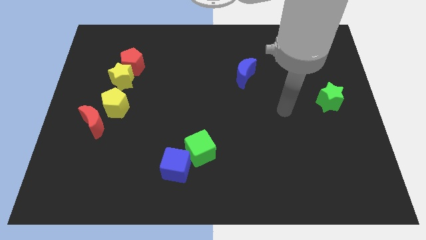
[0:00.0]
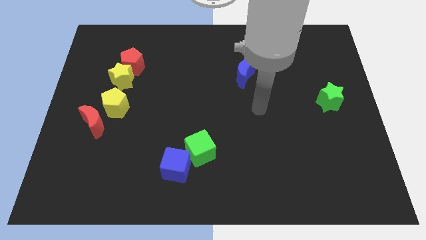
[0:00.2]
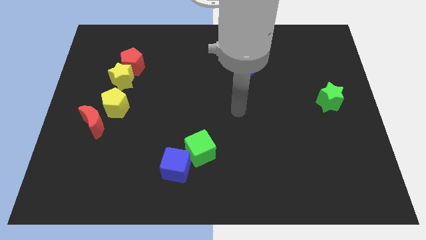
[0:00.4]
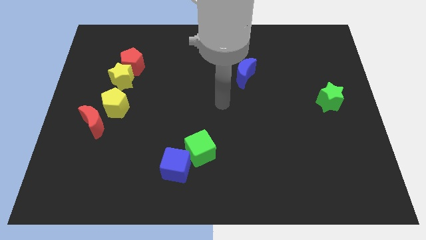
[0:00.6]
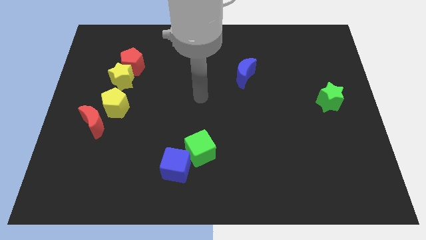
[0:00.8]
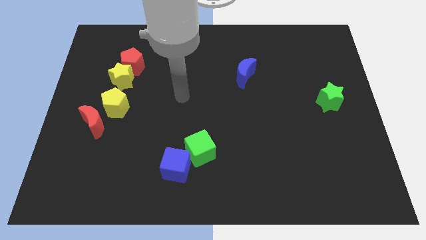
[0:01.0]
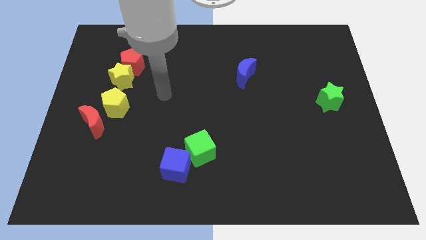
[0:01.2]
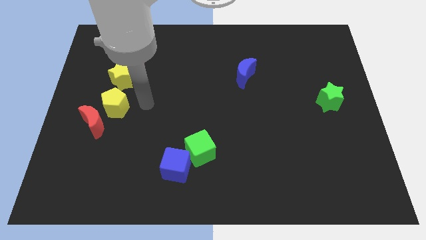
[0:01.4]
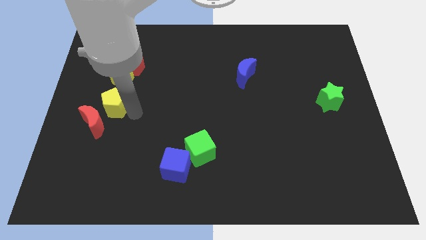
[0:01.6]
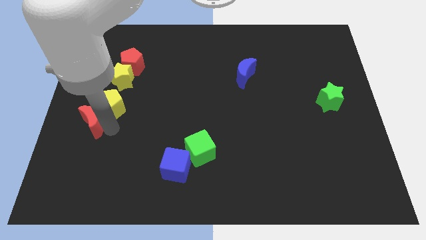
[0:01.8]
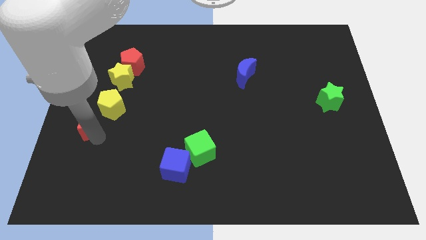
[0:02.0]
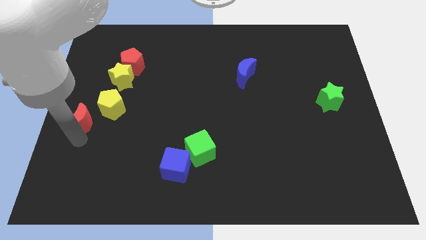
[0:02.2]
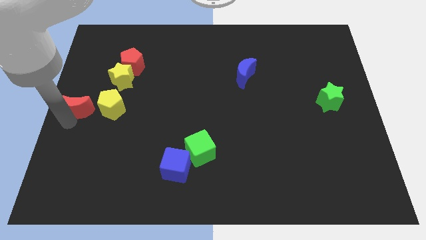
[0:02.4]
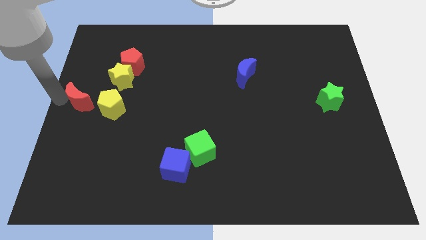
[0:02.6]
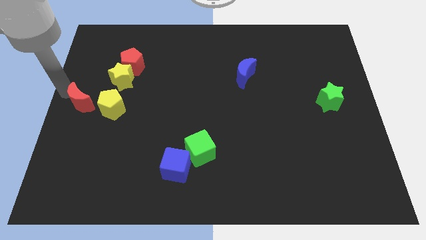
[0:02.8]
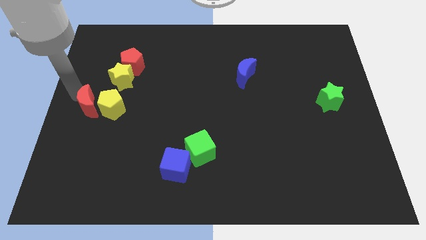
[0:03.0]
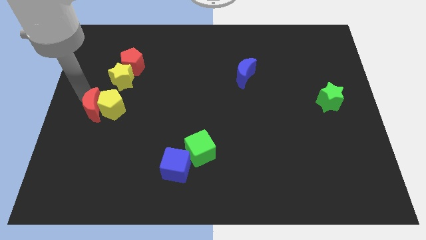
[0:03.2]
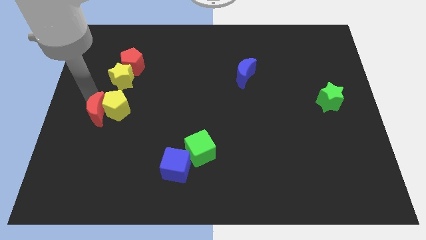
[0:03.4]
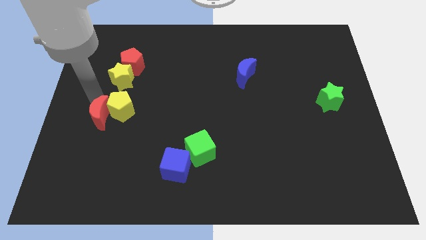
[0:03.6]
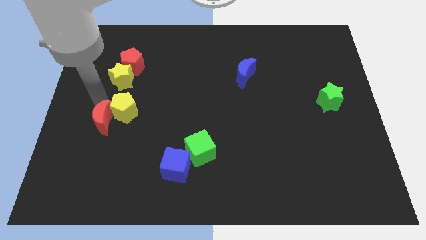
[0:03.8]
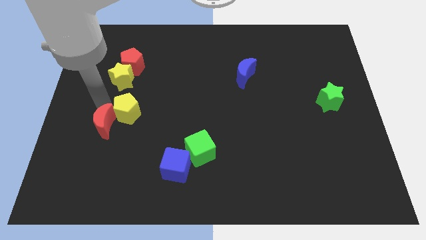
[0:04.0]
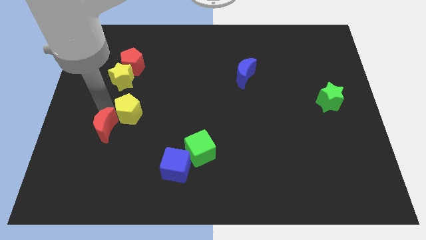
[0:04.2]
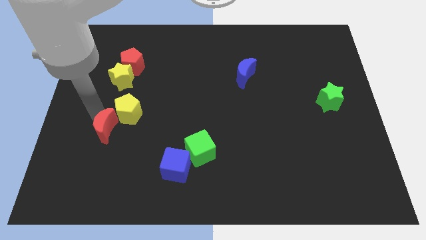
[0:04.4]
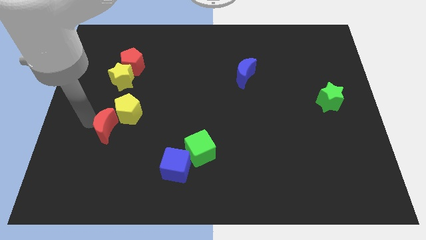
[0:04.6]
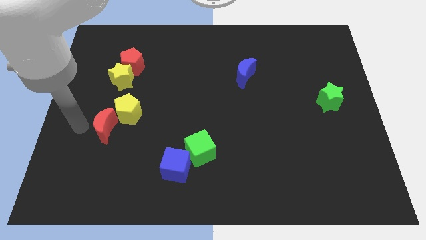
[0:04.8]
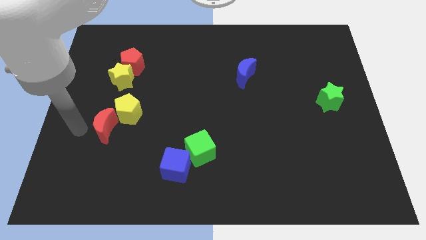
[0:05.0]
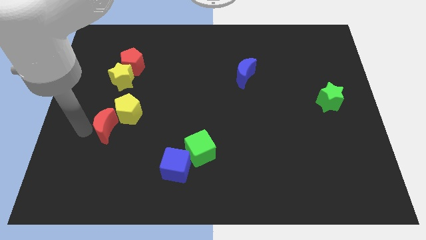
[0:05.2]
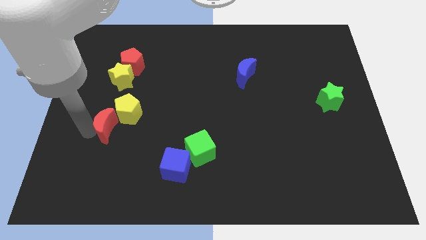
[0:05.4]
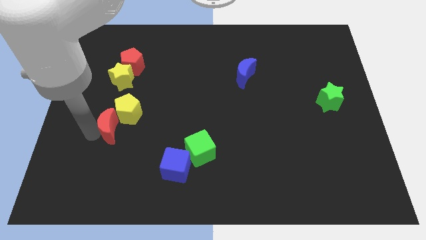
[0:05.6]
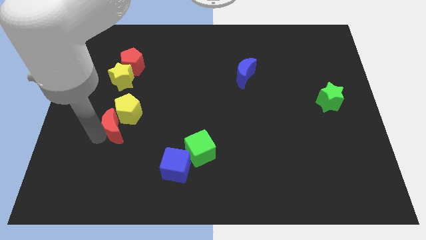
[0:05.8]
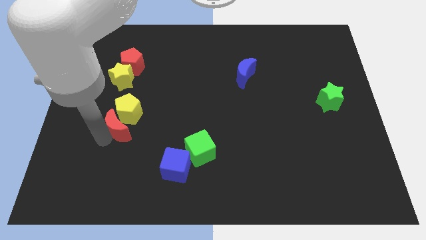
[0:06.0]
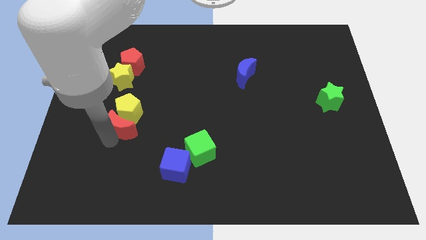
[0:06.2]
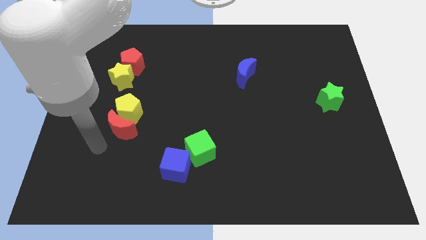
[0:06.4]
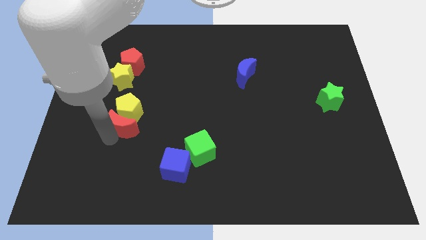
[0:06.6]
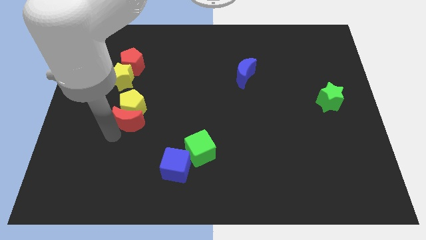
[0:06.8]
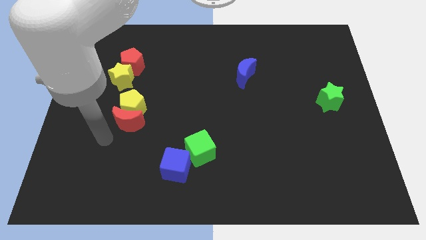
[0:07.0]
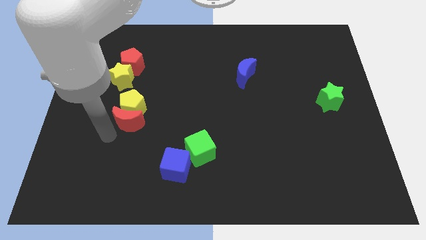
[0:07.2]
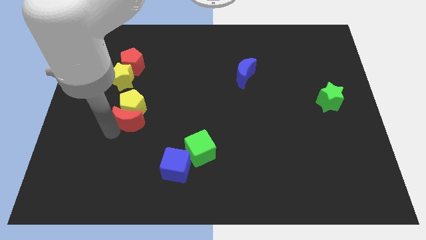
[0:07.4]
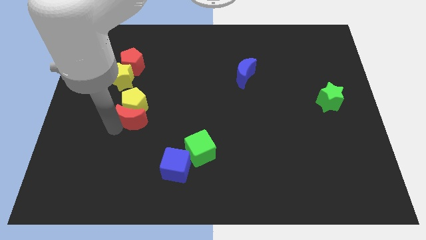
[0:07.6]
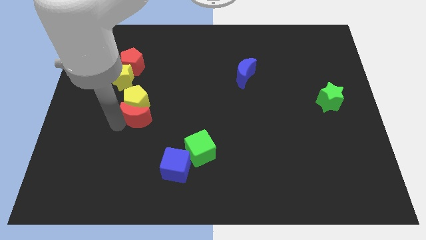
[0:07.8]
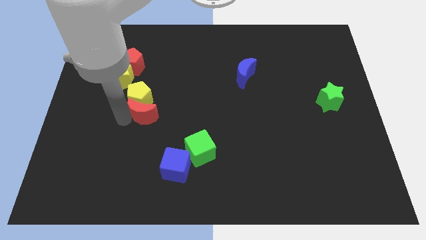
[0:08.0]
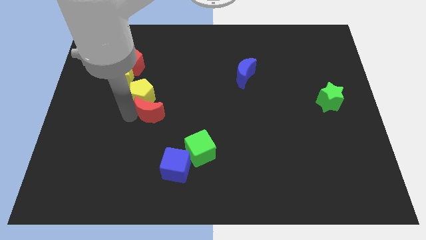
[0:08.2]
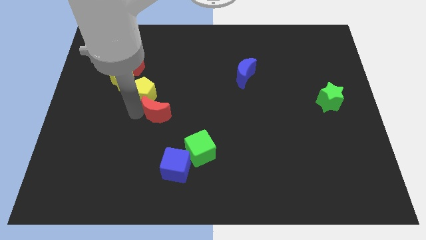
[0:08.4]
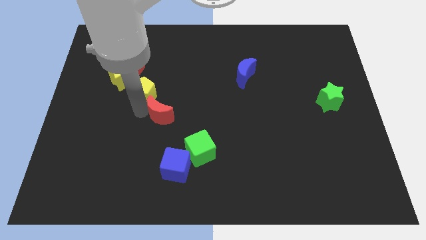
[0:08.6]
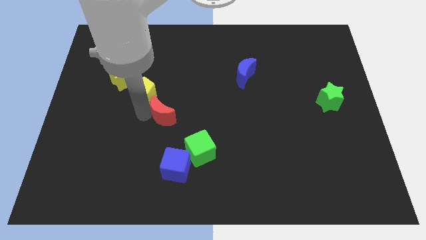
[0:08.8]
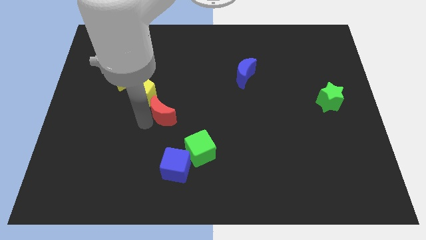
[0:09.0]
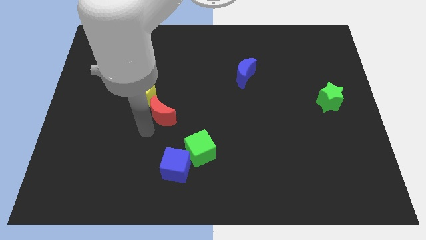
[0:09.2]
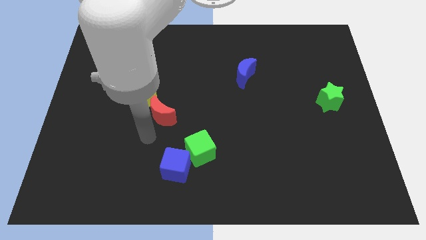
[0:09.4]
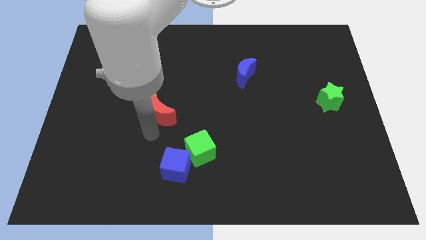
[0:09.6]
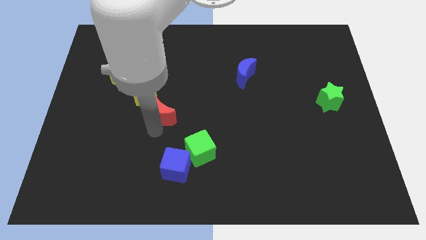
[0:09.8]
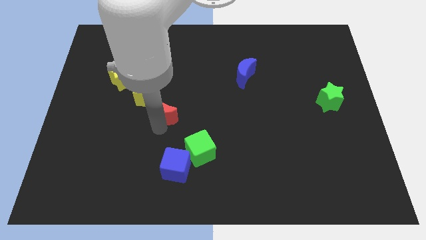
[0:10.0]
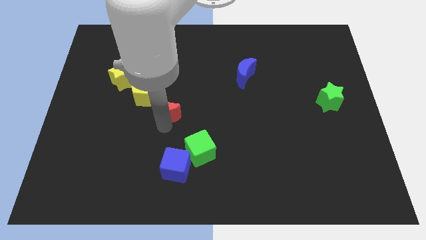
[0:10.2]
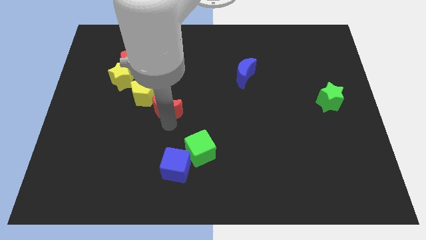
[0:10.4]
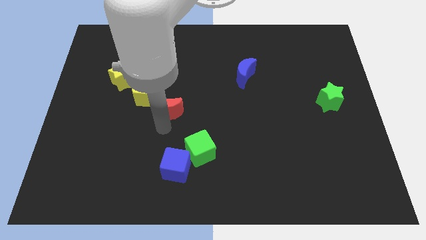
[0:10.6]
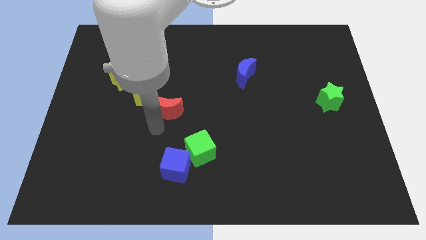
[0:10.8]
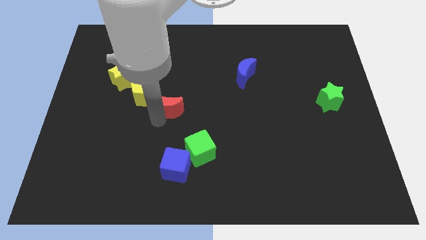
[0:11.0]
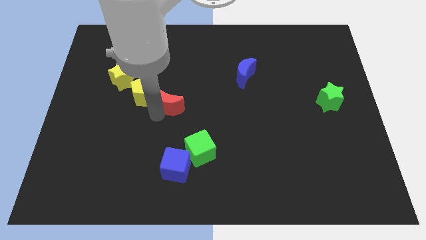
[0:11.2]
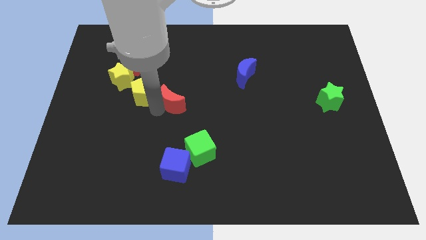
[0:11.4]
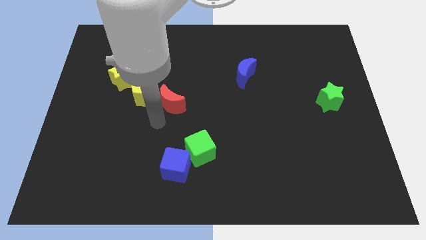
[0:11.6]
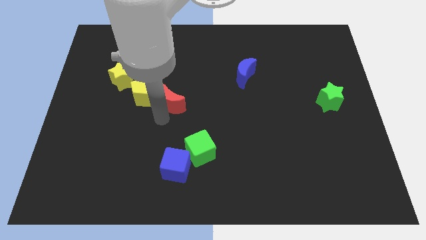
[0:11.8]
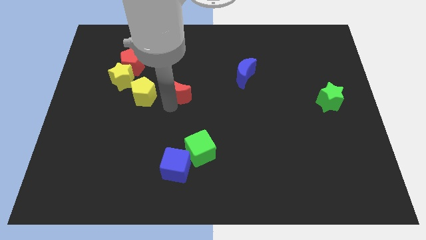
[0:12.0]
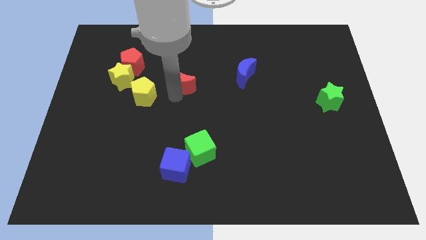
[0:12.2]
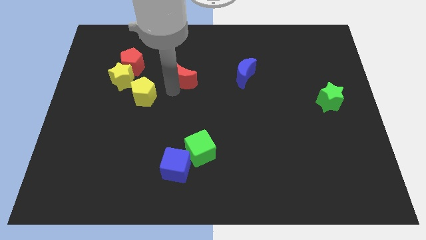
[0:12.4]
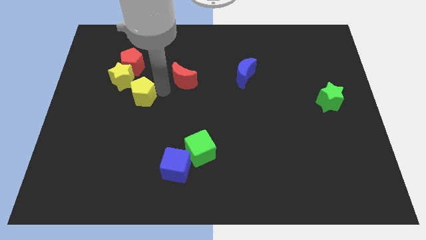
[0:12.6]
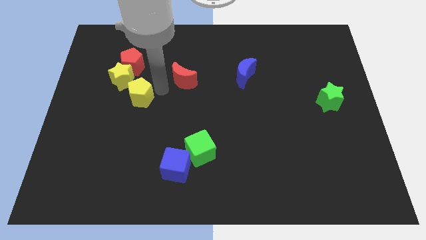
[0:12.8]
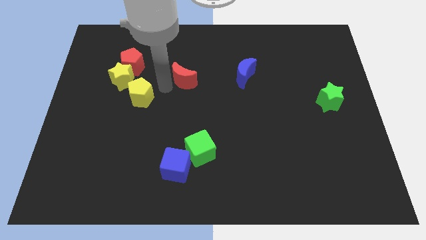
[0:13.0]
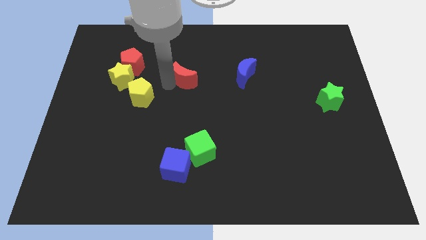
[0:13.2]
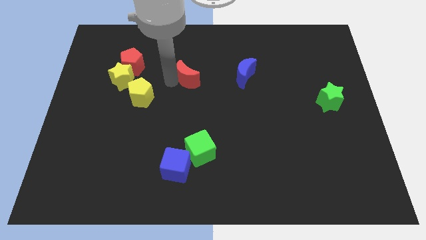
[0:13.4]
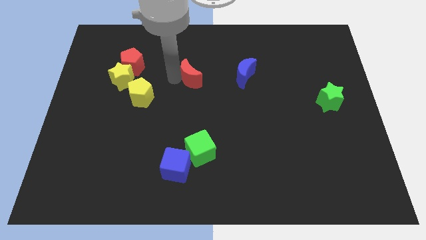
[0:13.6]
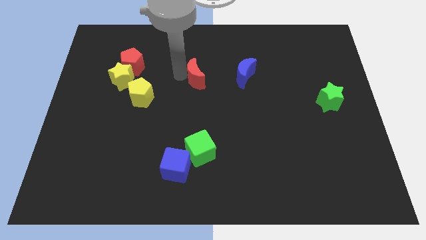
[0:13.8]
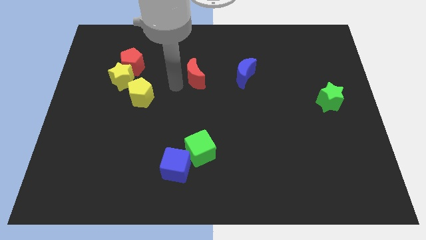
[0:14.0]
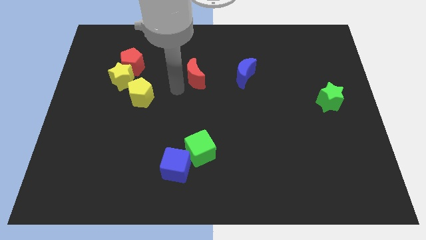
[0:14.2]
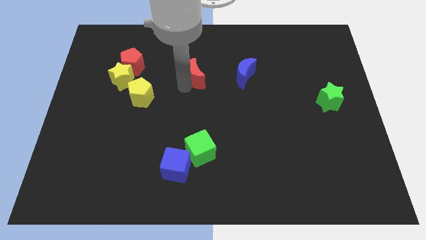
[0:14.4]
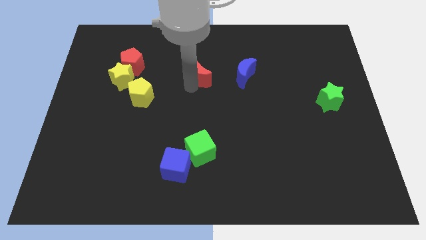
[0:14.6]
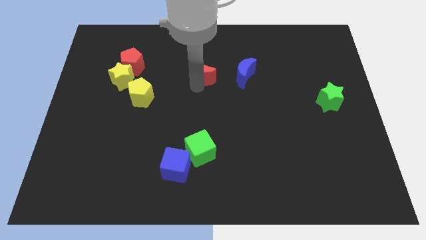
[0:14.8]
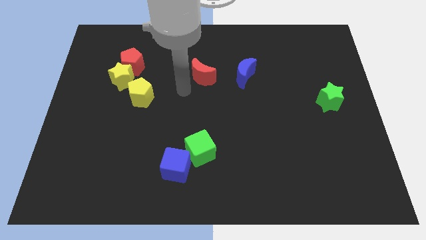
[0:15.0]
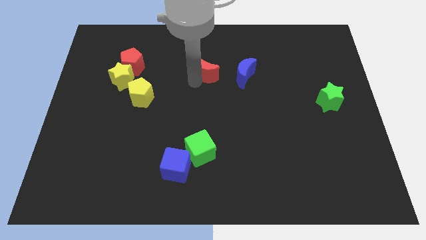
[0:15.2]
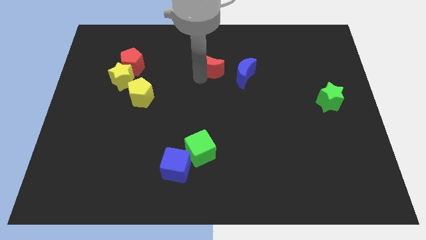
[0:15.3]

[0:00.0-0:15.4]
slide the red moon to the top left of the blue moon
